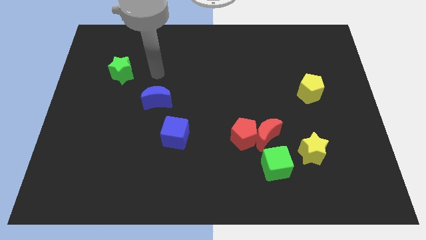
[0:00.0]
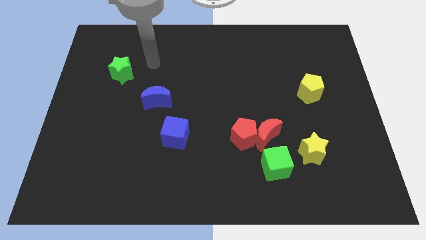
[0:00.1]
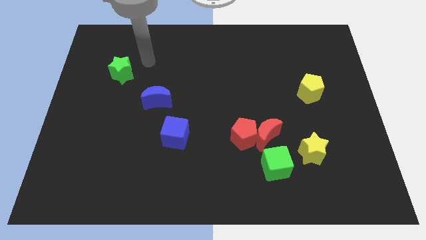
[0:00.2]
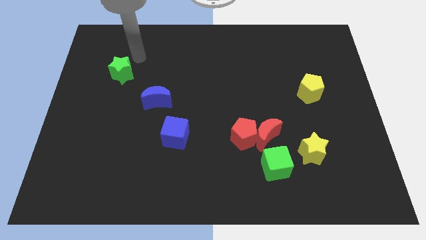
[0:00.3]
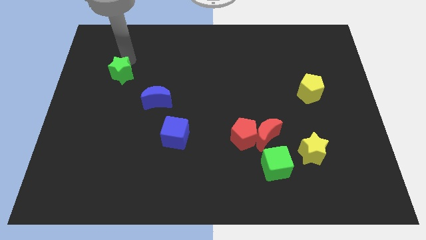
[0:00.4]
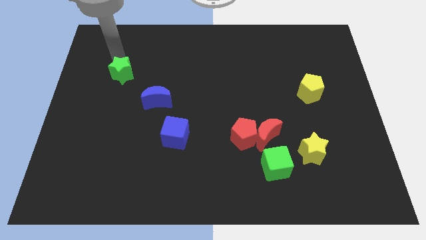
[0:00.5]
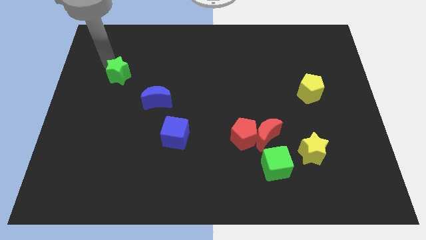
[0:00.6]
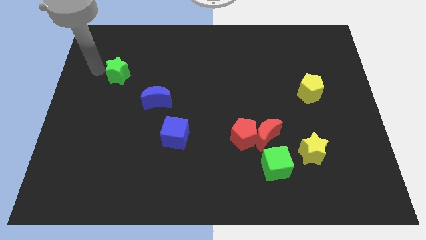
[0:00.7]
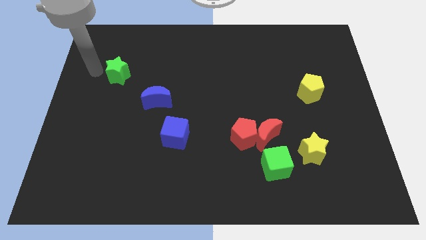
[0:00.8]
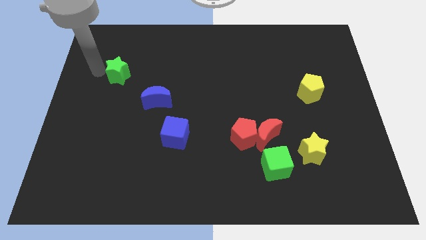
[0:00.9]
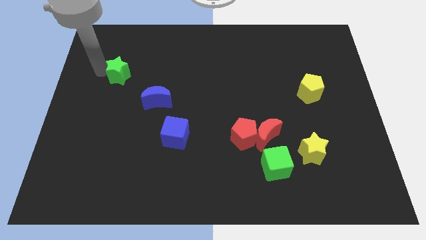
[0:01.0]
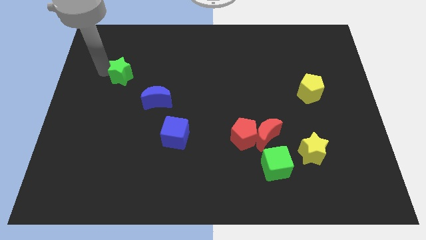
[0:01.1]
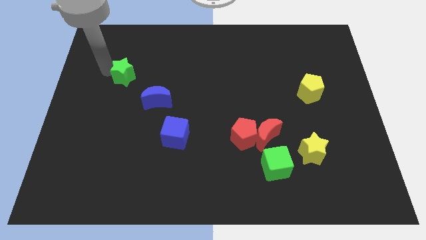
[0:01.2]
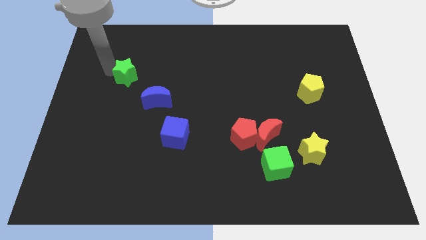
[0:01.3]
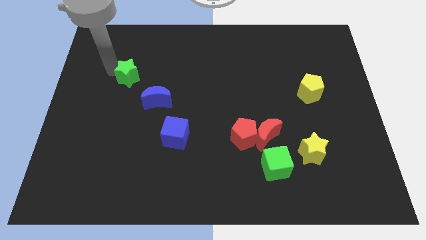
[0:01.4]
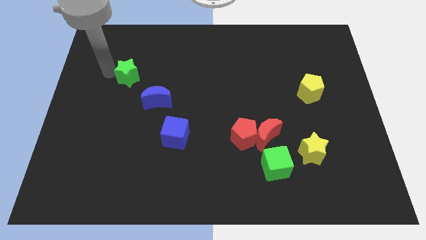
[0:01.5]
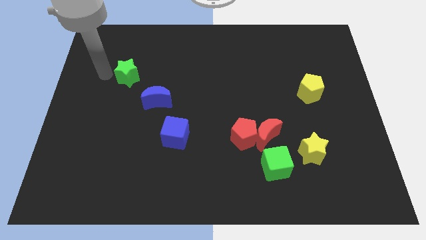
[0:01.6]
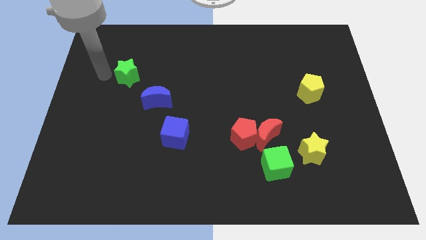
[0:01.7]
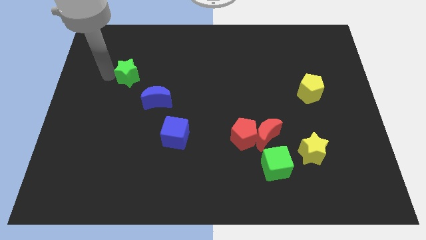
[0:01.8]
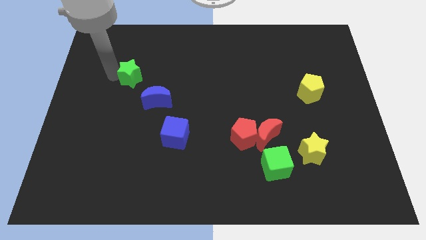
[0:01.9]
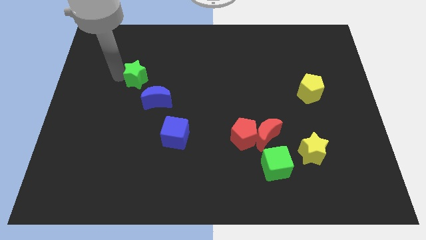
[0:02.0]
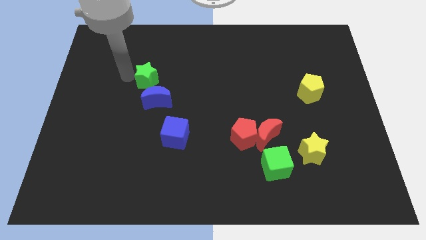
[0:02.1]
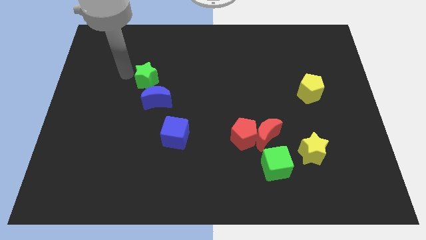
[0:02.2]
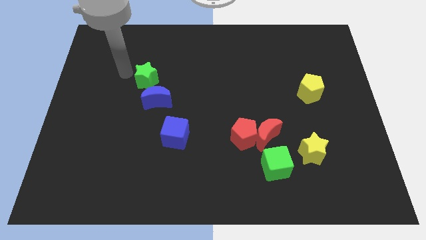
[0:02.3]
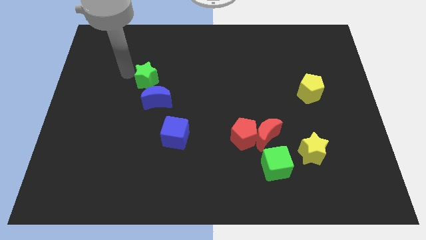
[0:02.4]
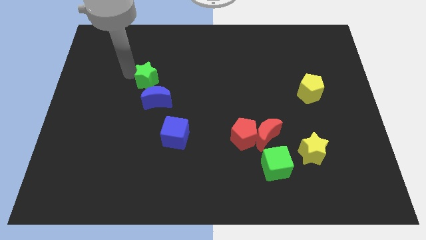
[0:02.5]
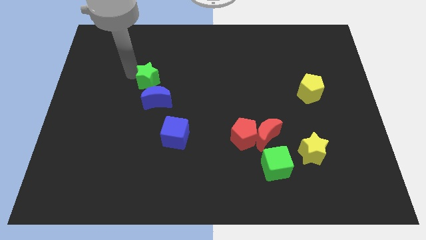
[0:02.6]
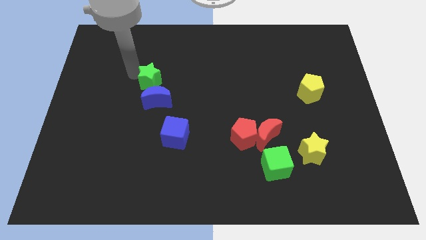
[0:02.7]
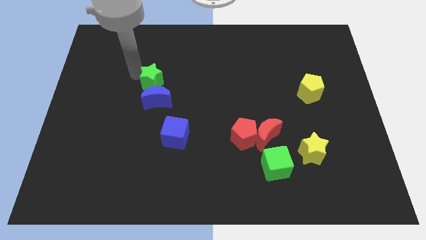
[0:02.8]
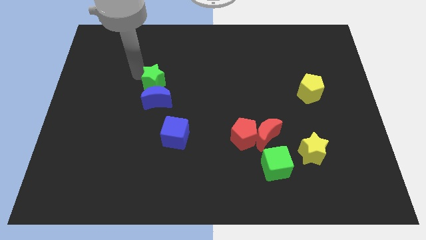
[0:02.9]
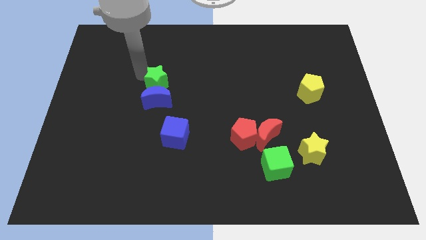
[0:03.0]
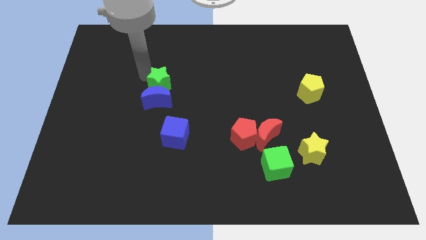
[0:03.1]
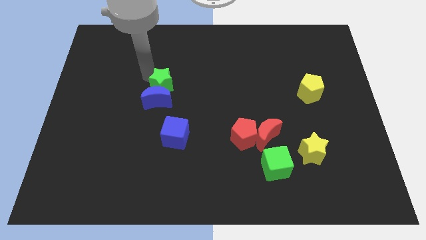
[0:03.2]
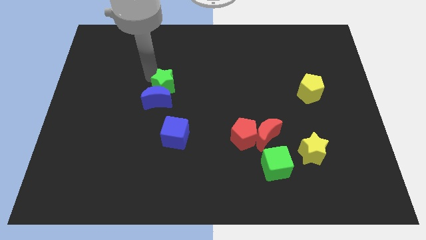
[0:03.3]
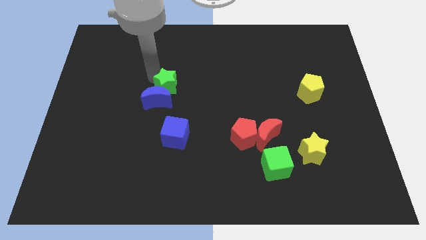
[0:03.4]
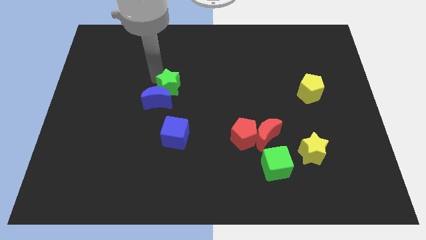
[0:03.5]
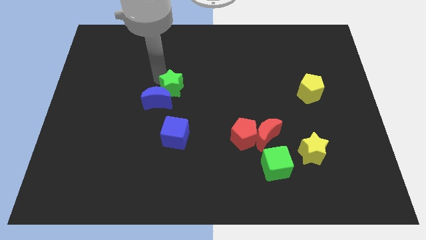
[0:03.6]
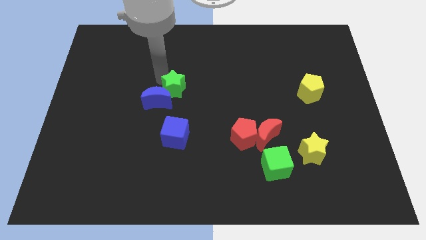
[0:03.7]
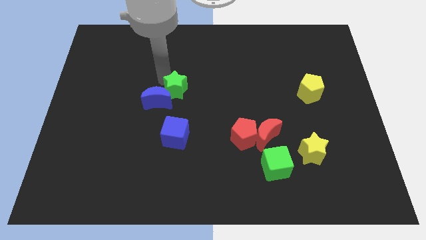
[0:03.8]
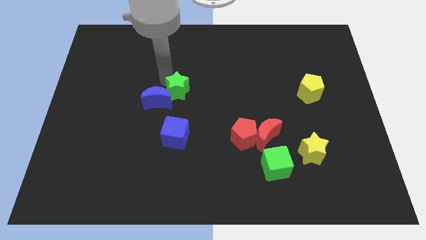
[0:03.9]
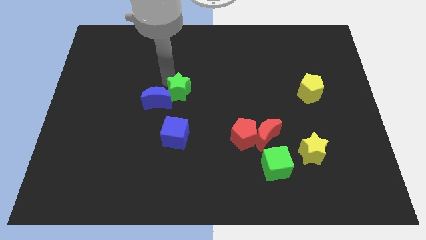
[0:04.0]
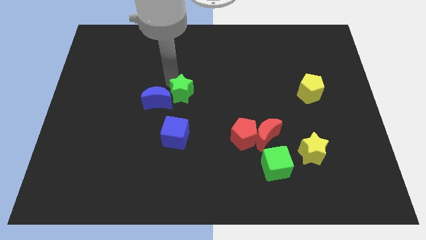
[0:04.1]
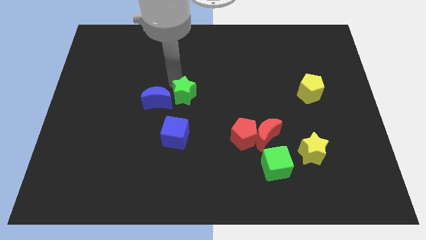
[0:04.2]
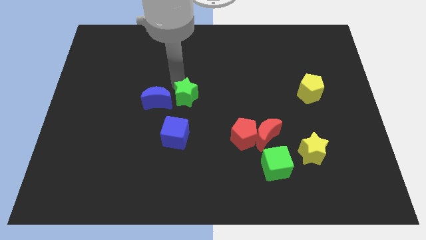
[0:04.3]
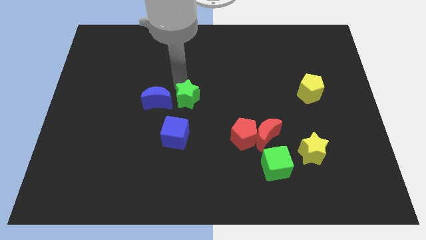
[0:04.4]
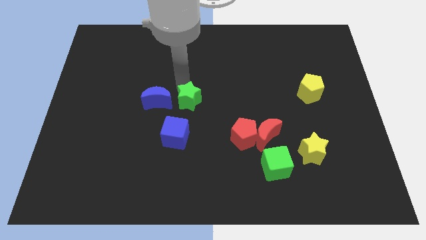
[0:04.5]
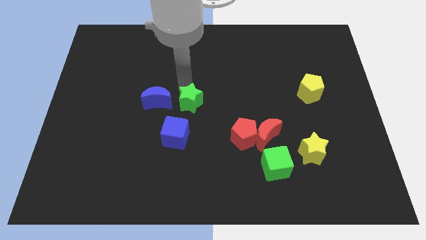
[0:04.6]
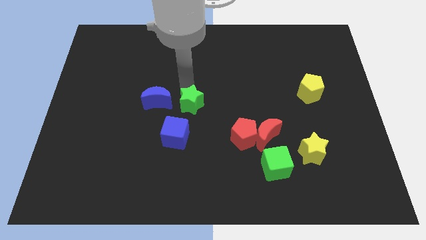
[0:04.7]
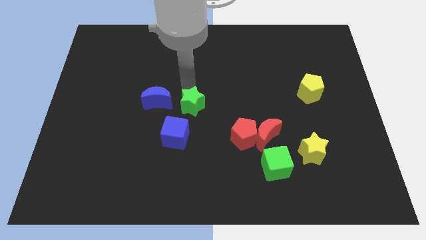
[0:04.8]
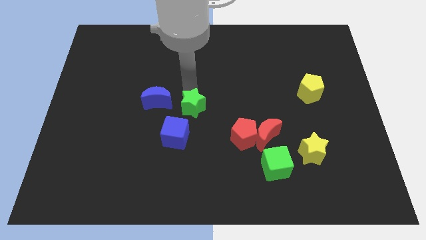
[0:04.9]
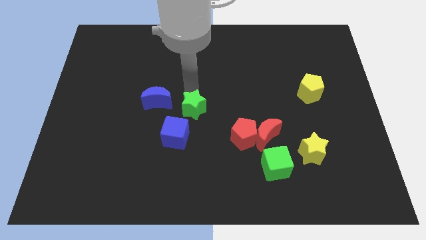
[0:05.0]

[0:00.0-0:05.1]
move the green star downwards and to the right

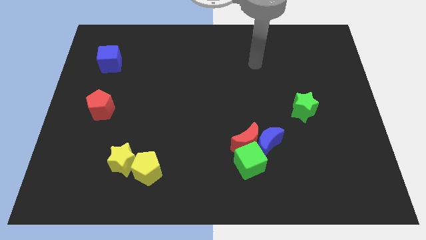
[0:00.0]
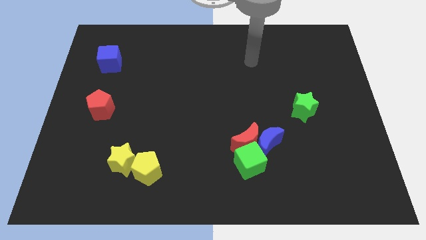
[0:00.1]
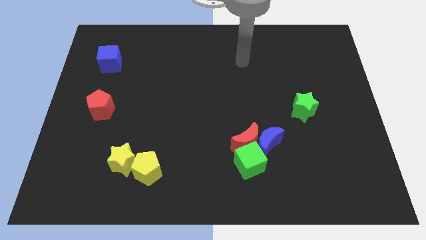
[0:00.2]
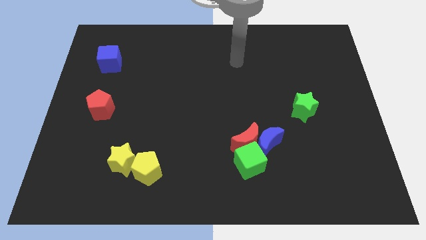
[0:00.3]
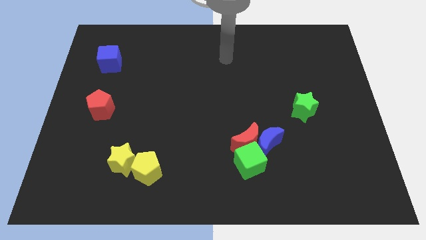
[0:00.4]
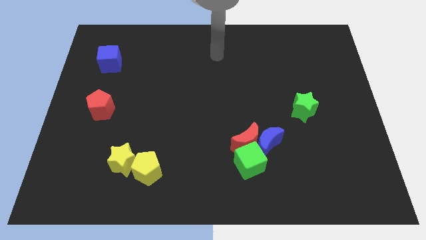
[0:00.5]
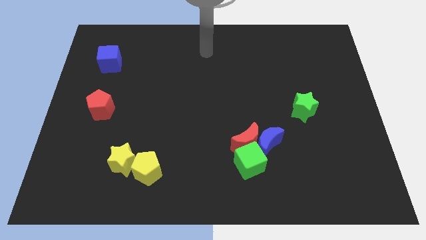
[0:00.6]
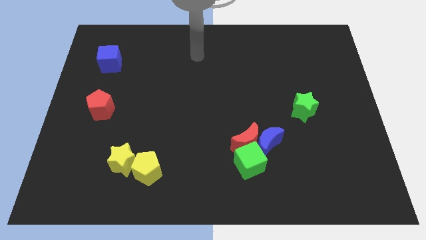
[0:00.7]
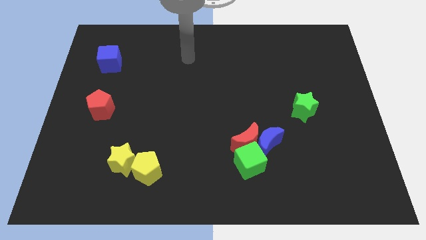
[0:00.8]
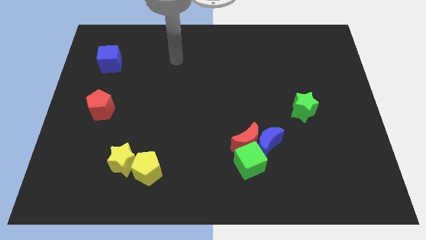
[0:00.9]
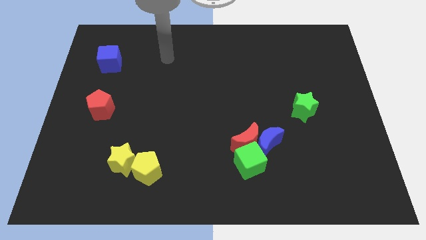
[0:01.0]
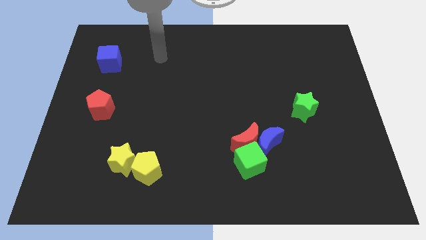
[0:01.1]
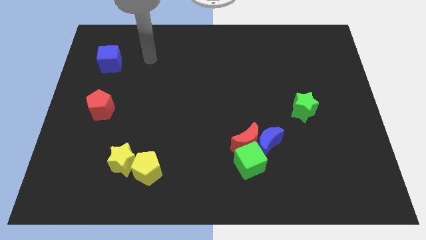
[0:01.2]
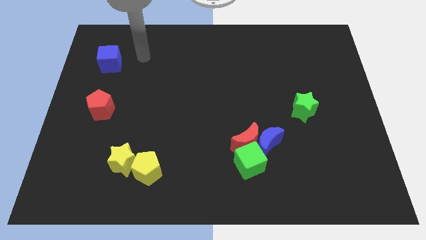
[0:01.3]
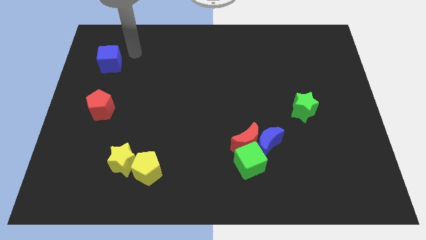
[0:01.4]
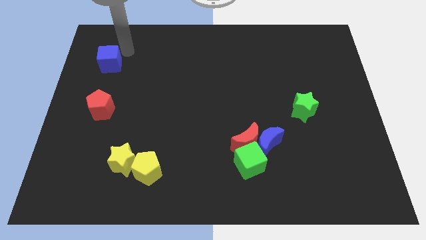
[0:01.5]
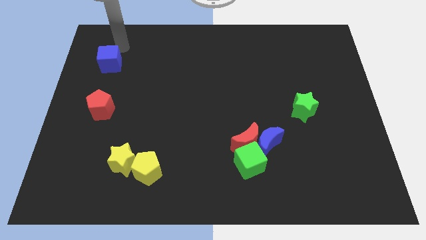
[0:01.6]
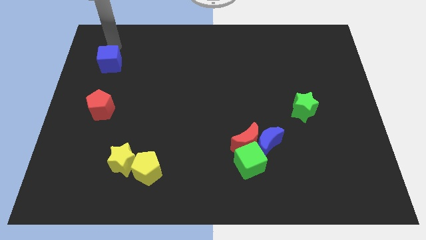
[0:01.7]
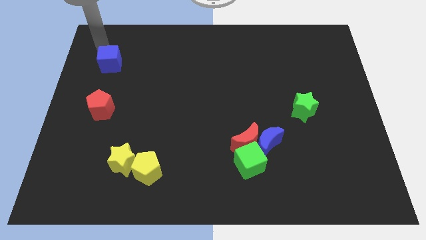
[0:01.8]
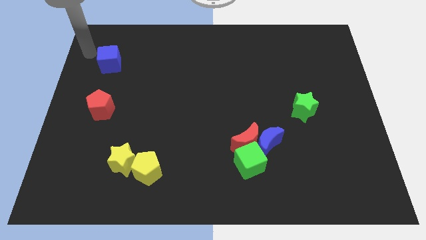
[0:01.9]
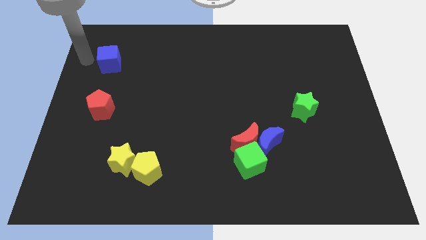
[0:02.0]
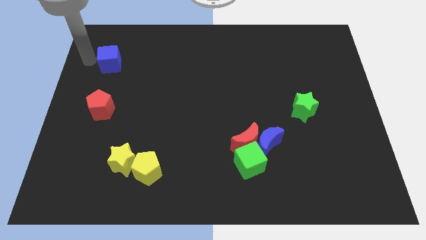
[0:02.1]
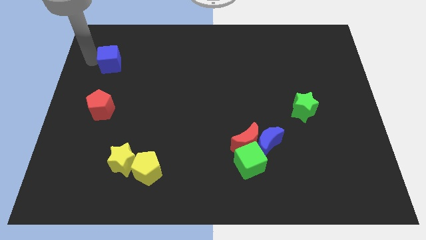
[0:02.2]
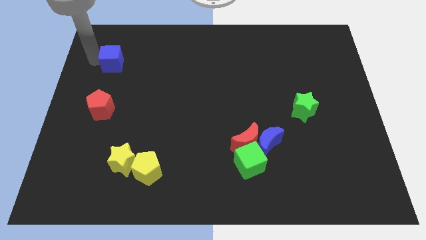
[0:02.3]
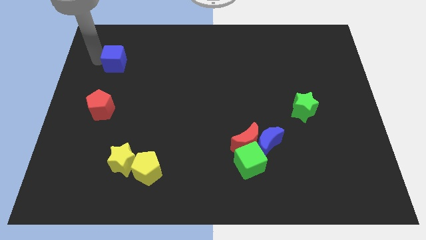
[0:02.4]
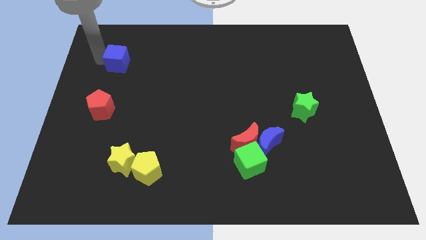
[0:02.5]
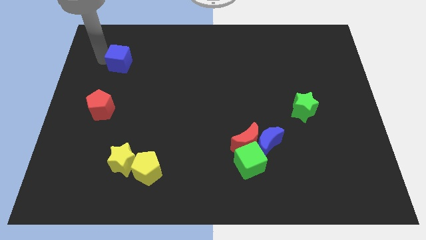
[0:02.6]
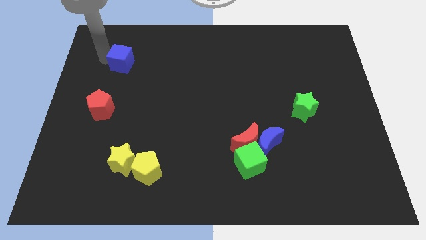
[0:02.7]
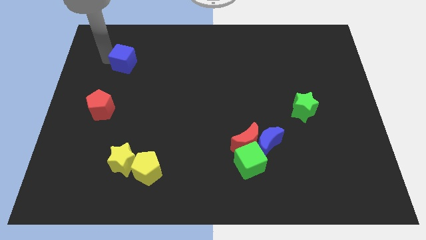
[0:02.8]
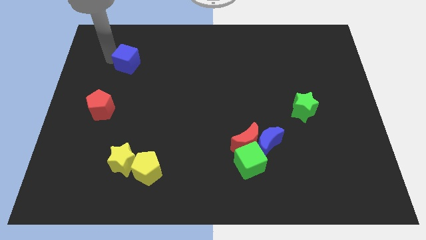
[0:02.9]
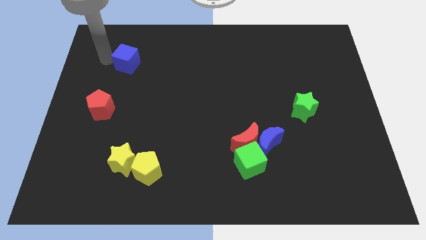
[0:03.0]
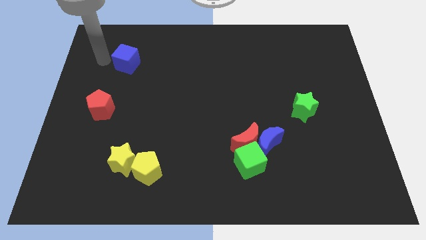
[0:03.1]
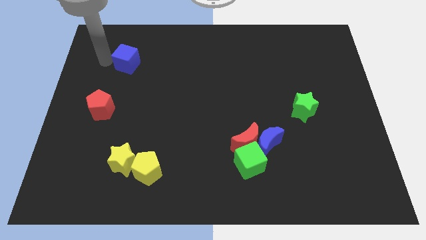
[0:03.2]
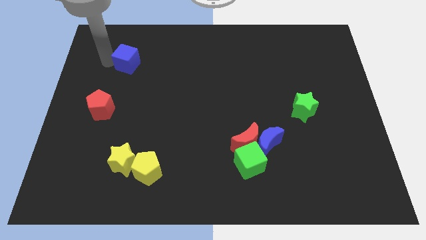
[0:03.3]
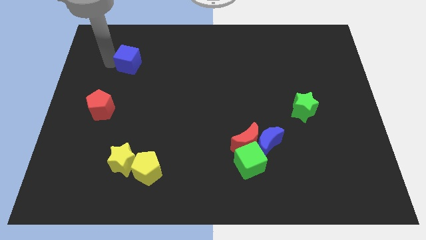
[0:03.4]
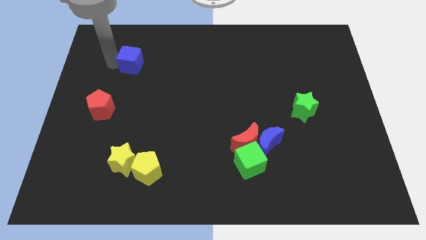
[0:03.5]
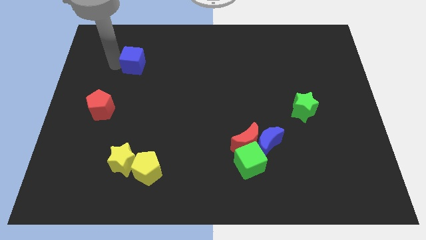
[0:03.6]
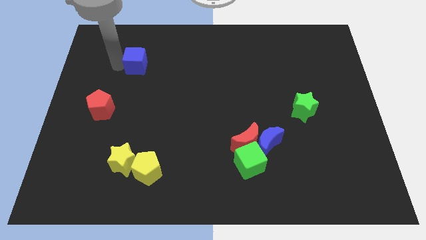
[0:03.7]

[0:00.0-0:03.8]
slide the blue cube to the right a little
